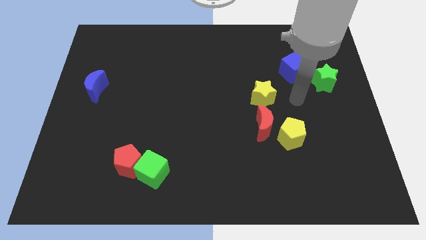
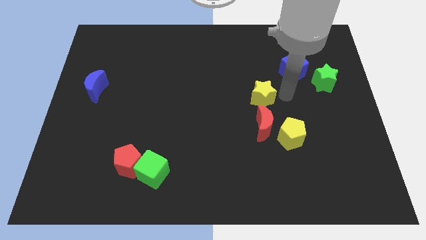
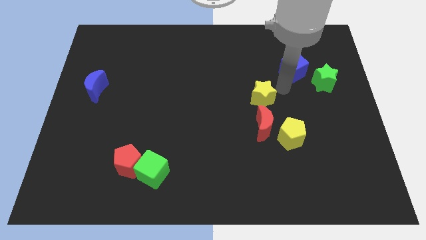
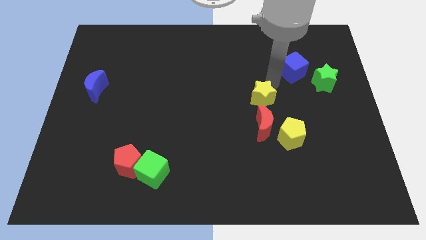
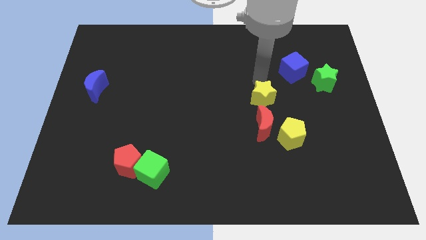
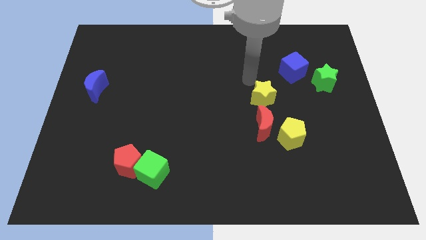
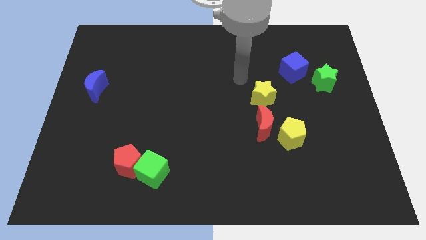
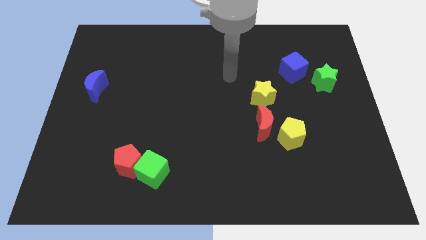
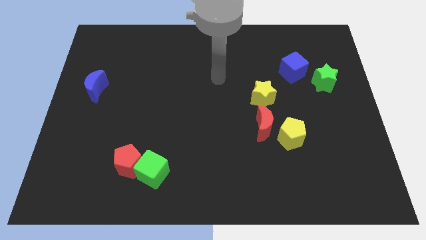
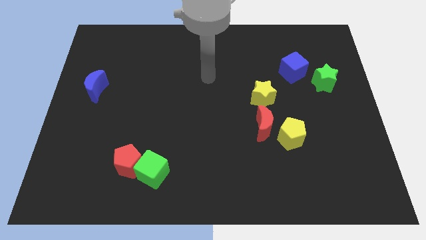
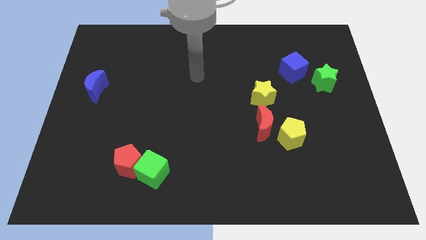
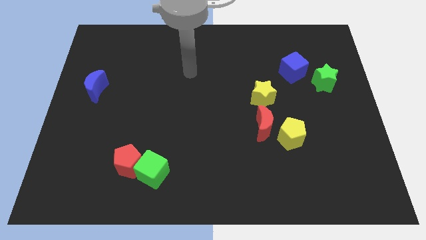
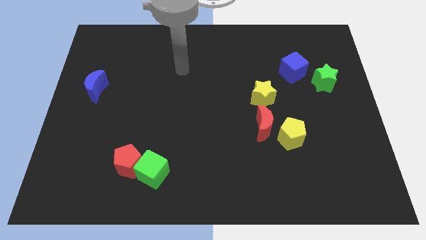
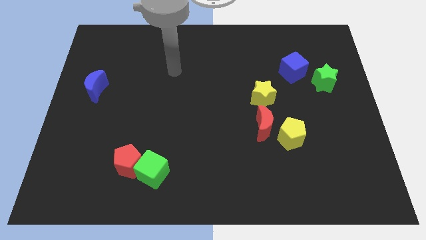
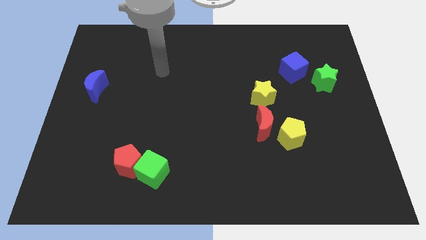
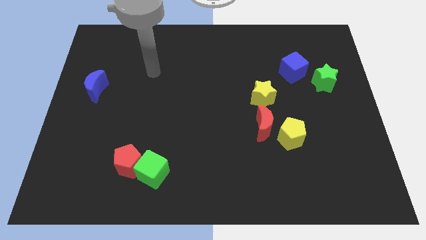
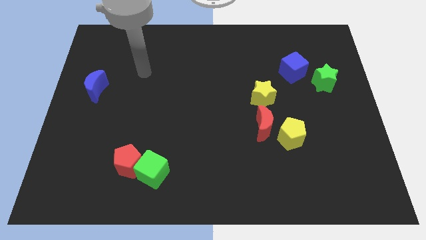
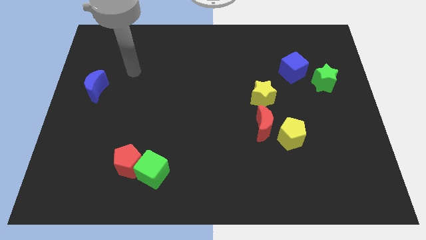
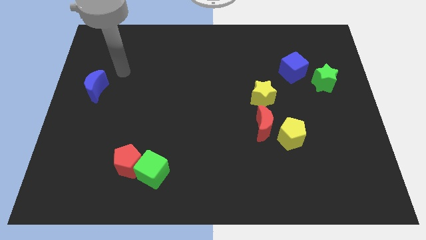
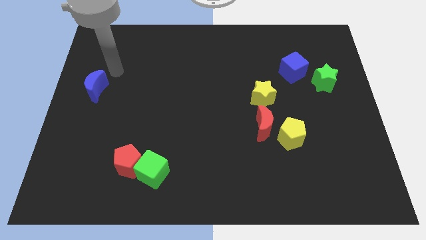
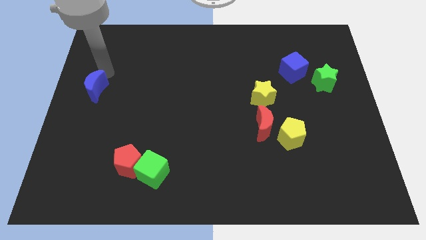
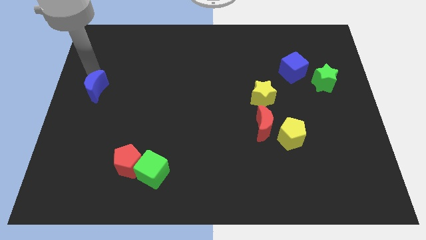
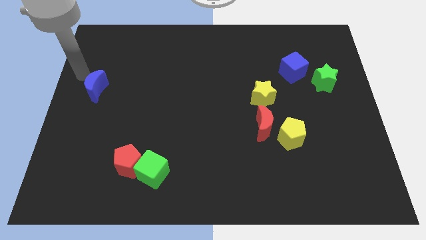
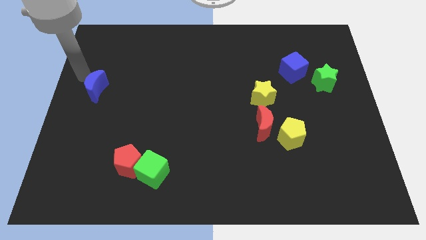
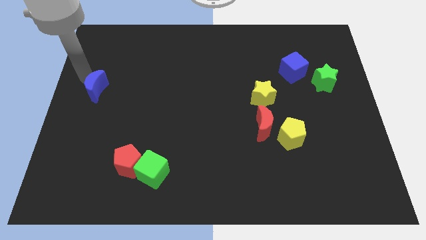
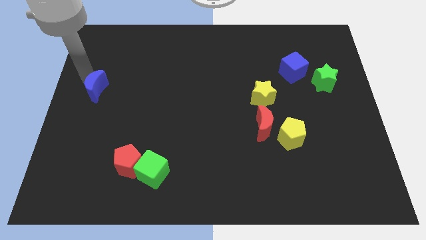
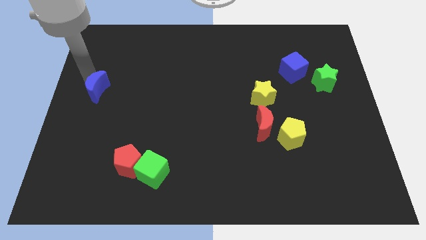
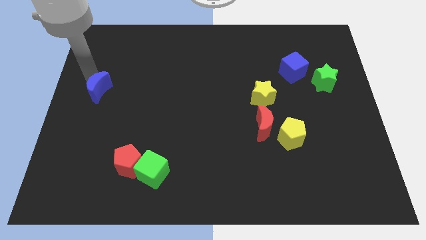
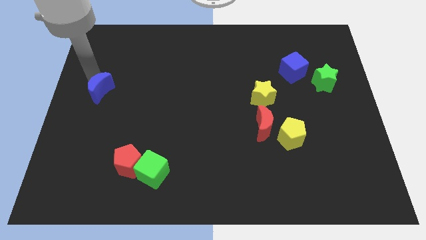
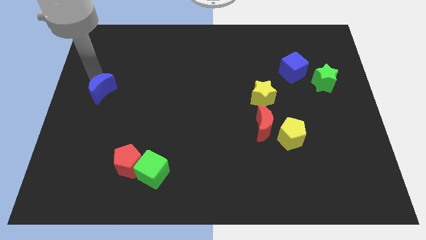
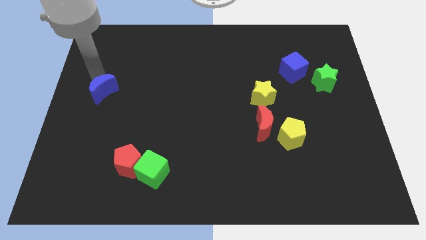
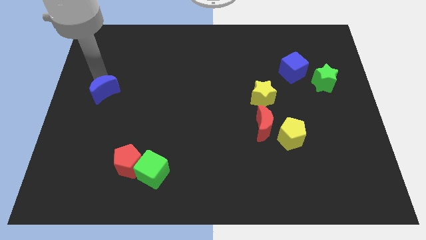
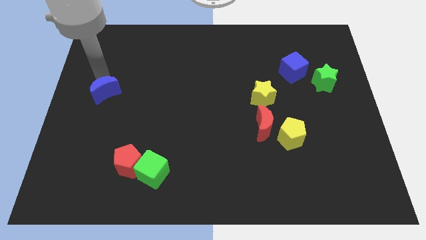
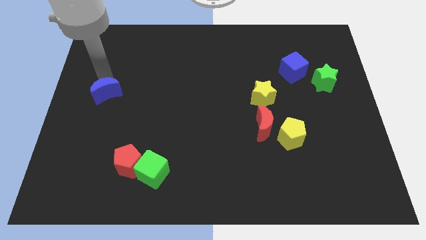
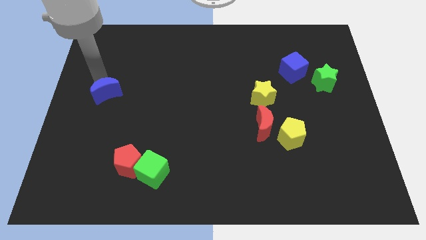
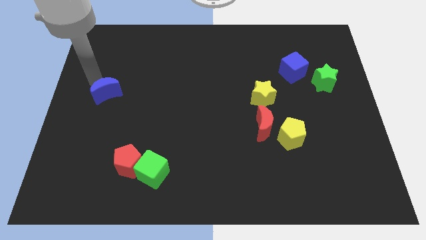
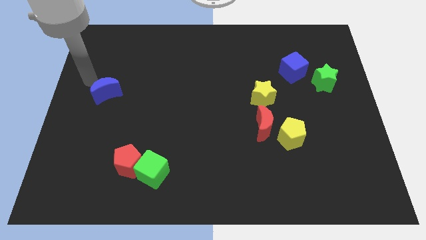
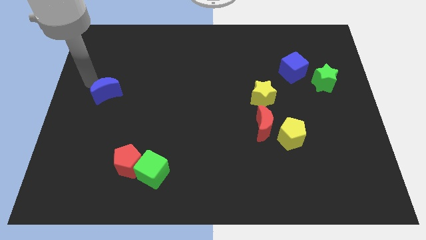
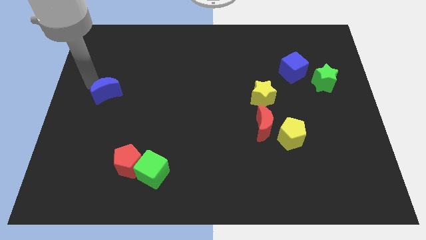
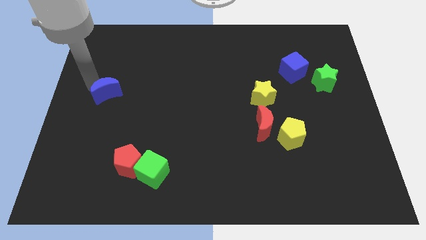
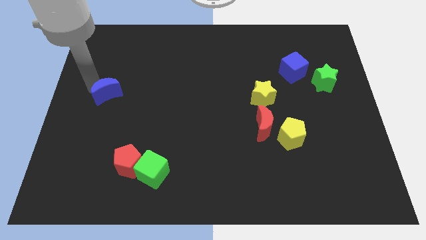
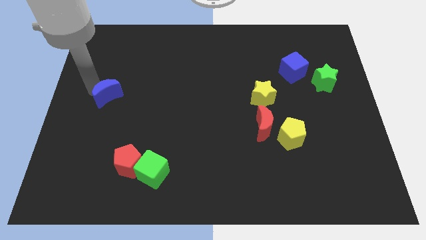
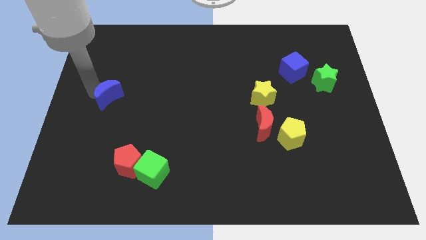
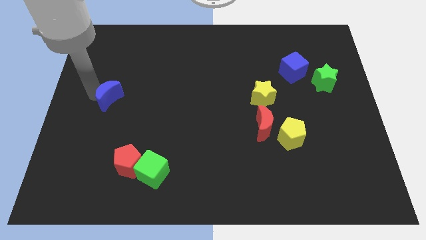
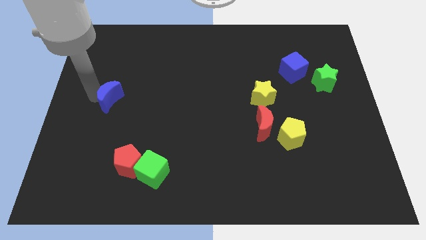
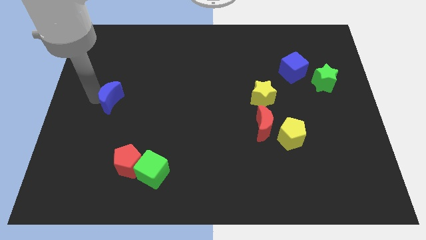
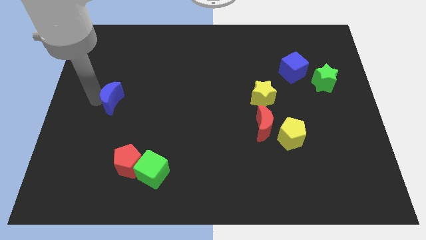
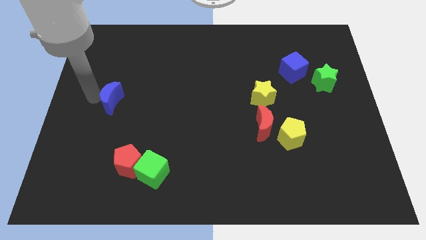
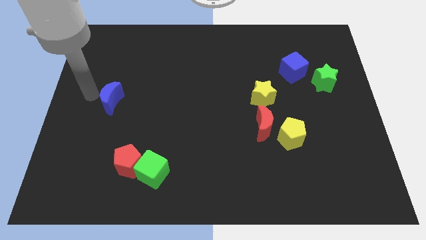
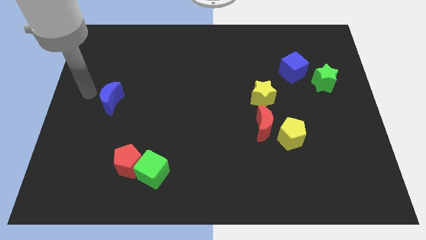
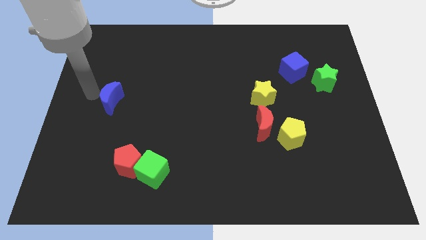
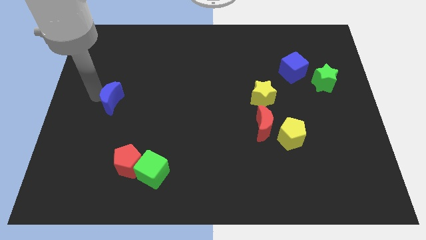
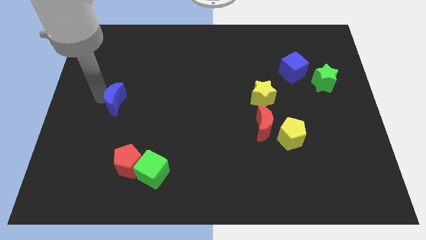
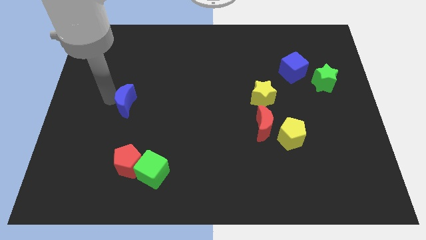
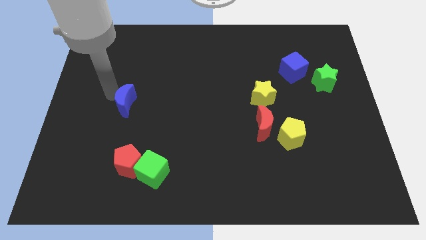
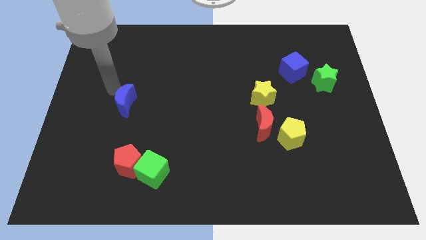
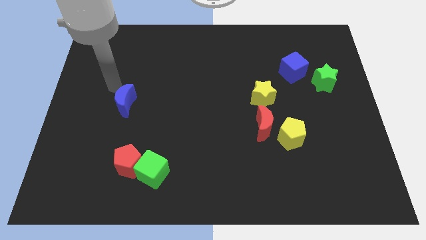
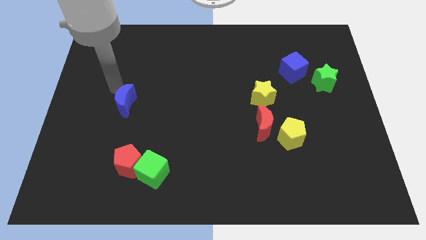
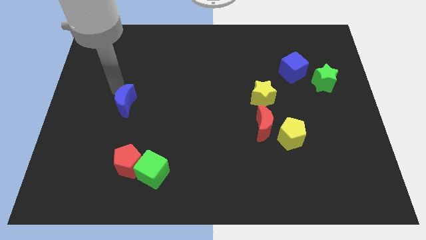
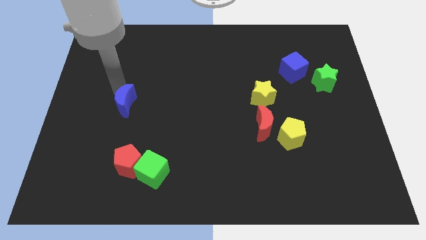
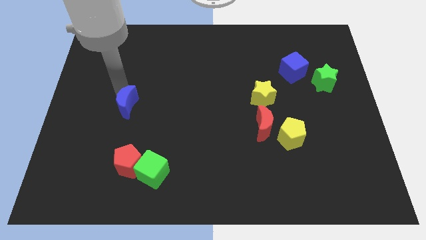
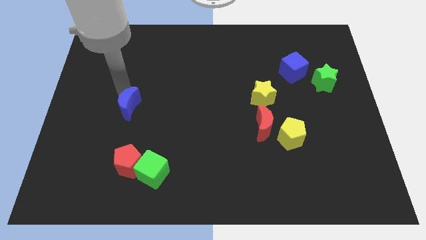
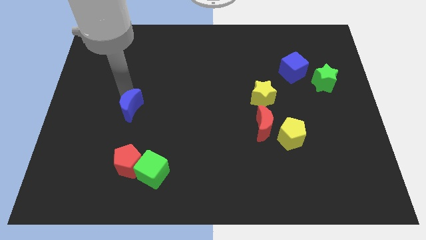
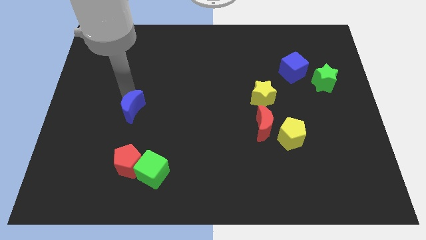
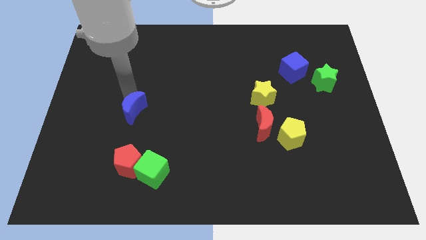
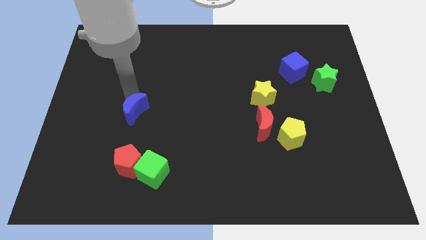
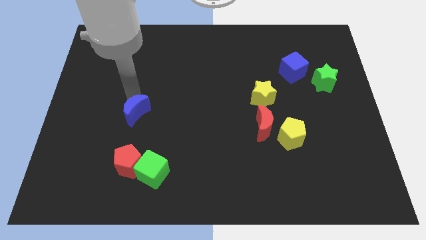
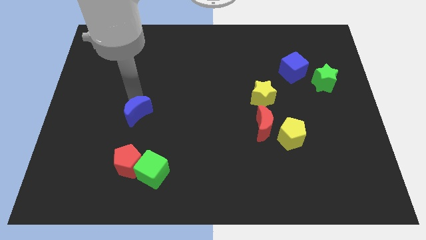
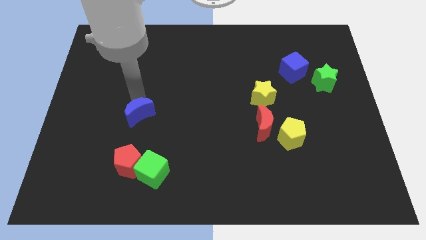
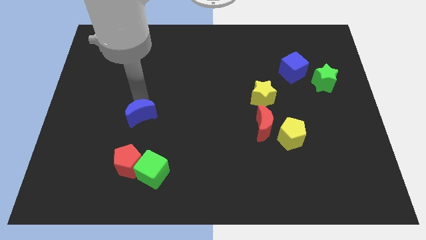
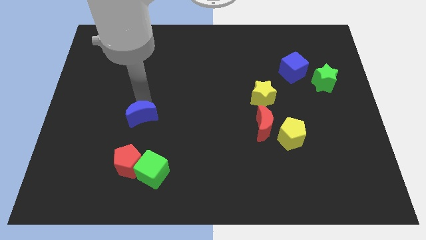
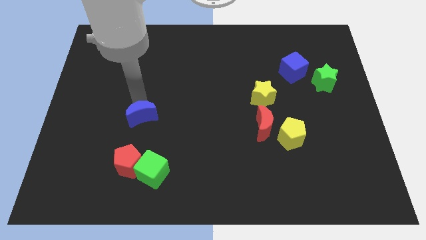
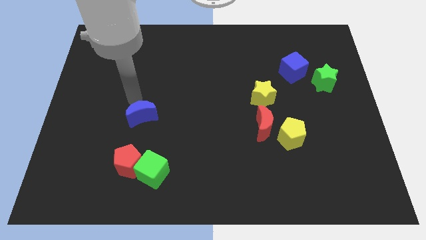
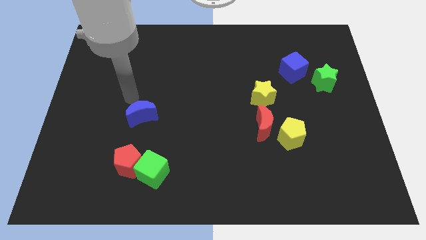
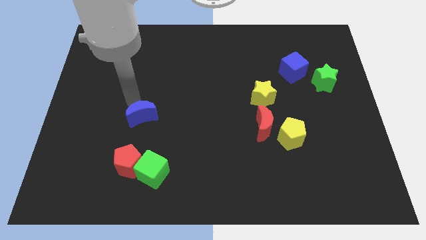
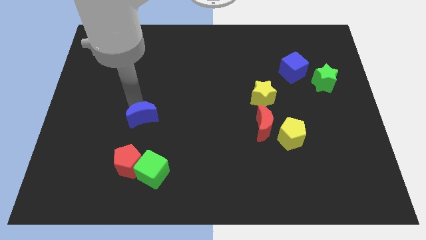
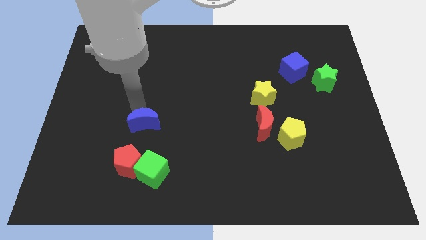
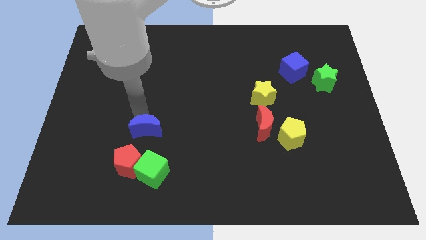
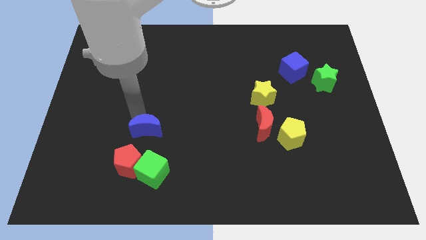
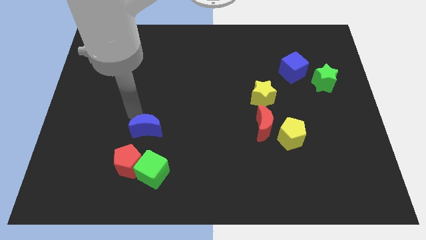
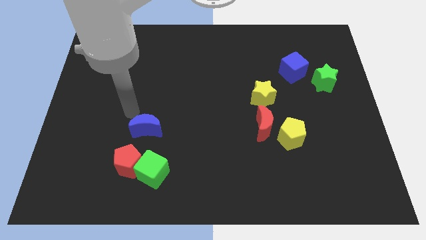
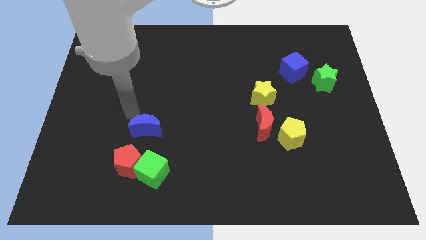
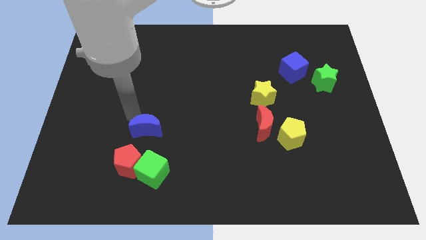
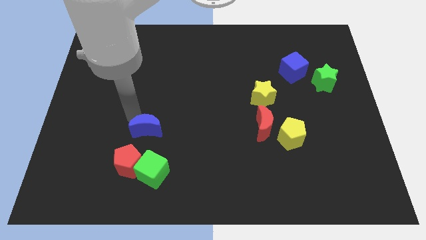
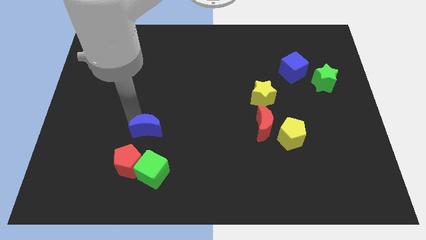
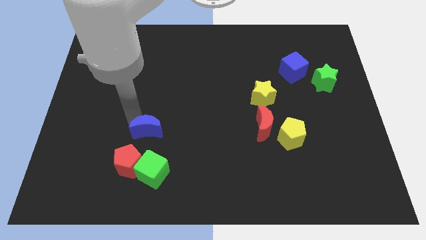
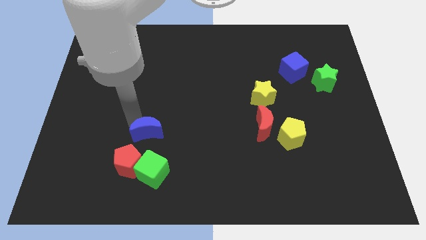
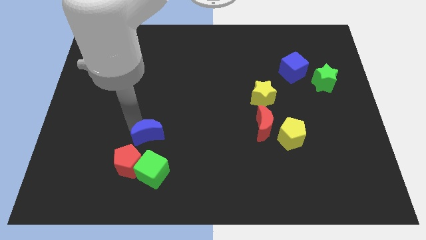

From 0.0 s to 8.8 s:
slide the blue moon downwards and right diagonally
